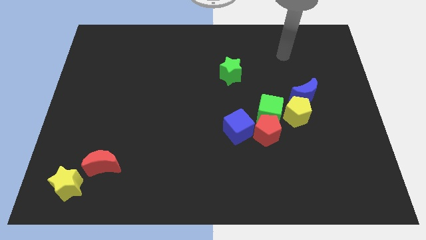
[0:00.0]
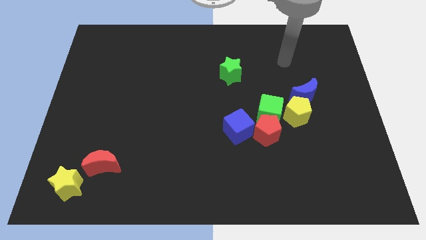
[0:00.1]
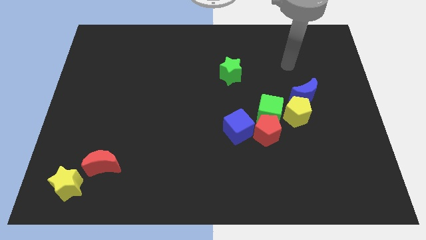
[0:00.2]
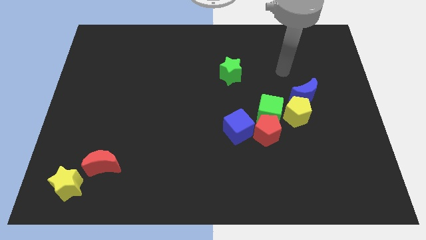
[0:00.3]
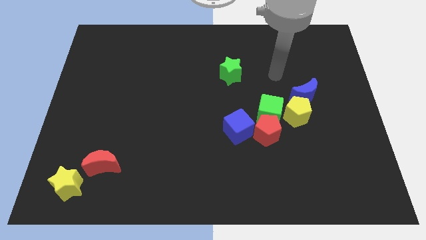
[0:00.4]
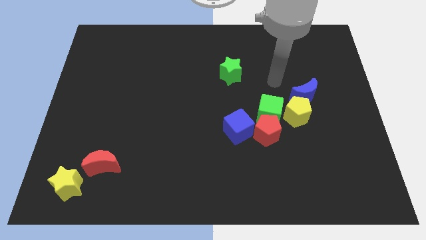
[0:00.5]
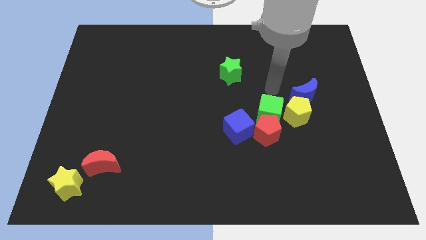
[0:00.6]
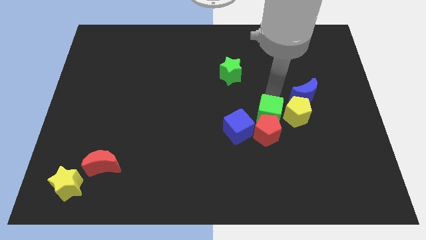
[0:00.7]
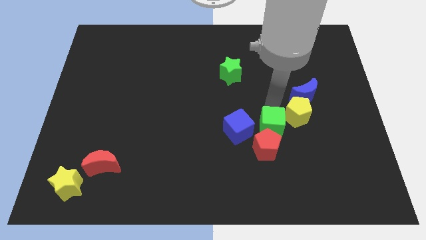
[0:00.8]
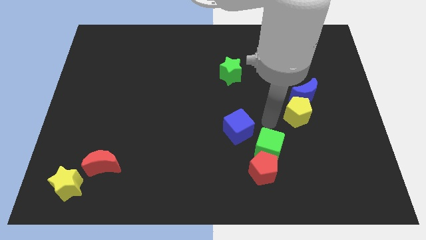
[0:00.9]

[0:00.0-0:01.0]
separate the red pentagon from the group of blocks

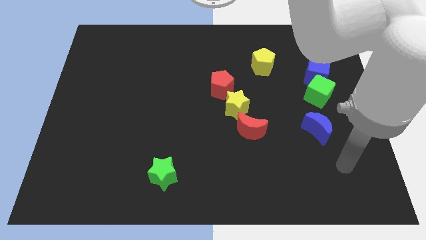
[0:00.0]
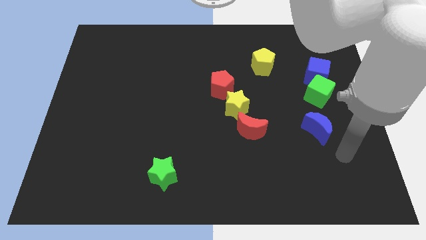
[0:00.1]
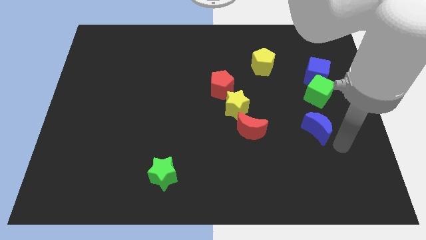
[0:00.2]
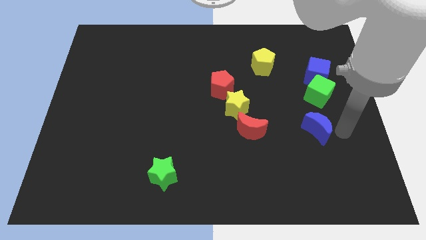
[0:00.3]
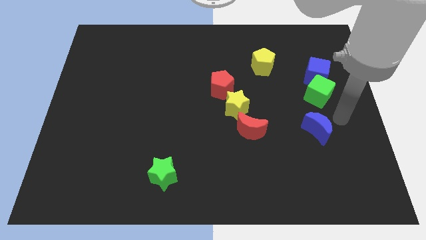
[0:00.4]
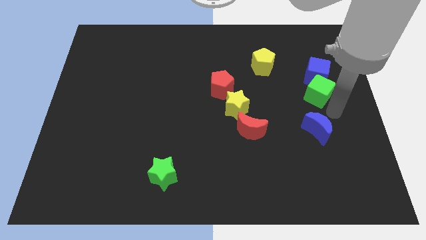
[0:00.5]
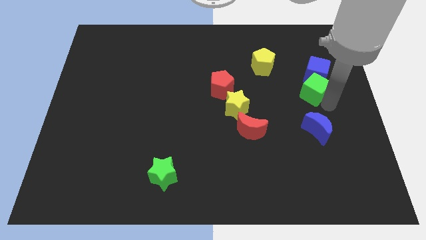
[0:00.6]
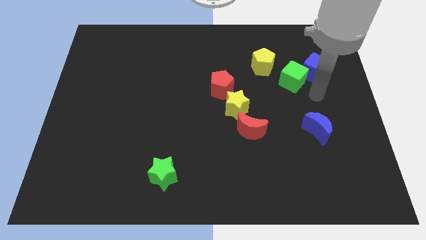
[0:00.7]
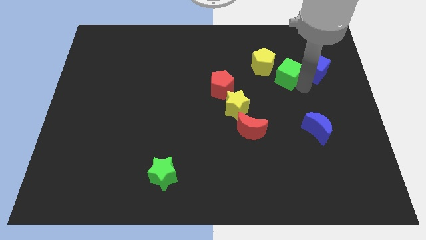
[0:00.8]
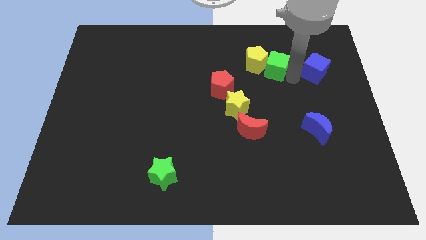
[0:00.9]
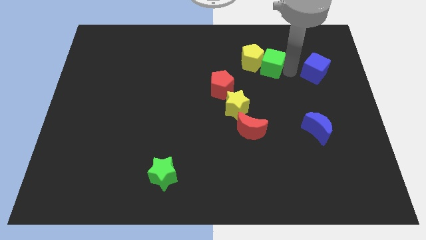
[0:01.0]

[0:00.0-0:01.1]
pull the blue cube apart from the green cube

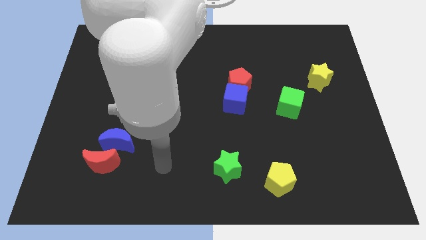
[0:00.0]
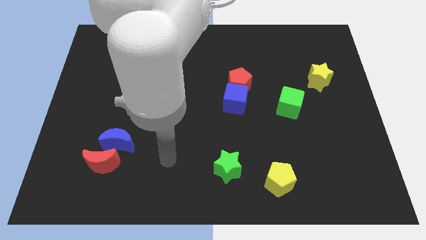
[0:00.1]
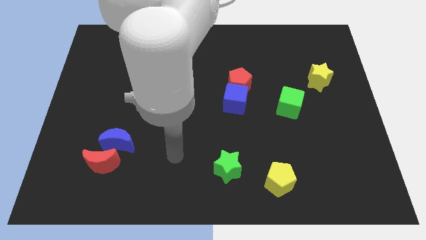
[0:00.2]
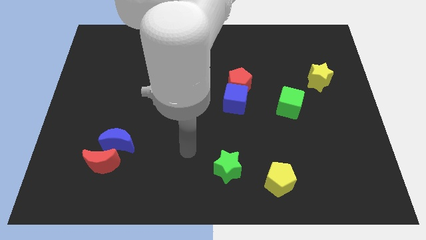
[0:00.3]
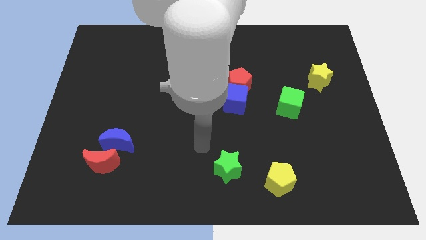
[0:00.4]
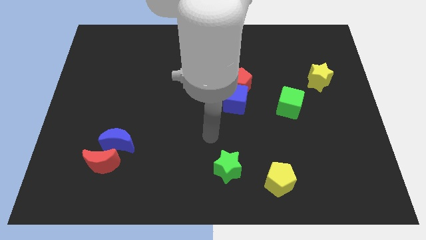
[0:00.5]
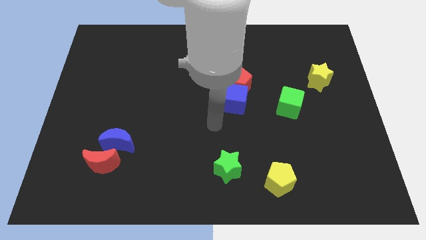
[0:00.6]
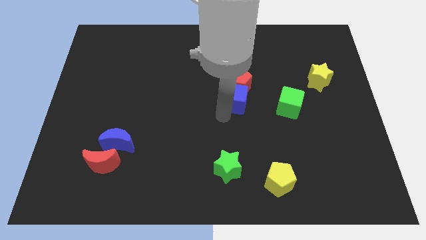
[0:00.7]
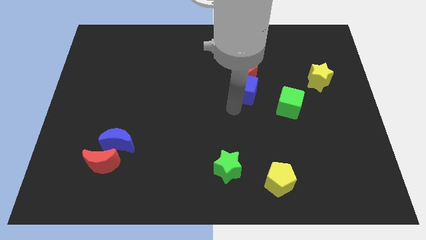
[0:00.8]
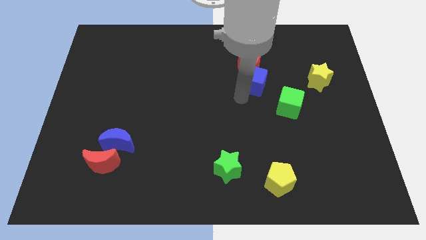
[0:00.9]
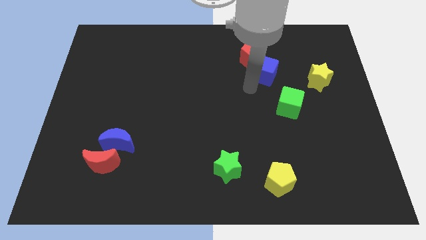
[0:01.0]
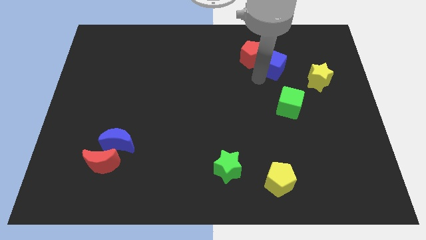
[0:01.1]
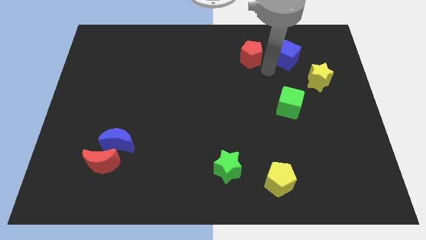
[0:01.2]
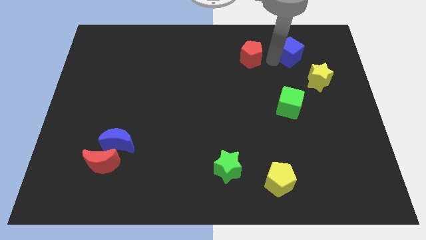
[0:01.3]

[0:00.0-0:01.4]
separate the red pentagon from the blue cube

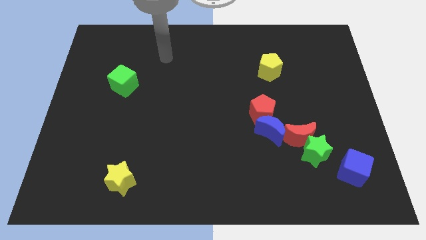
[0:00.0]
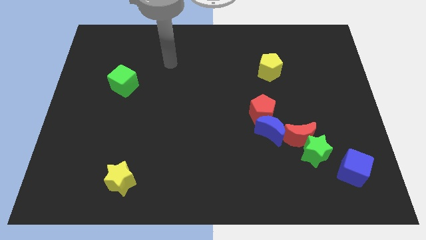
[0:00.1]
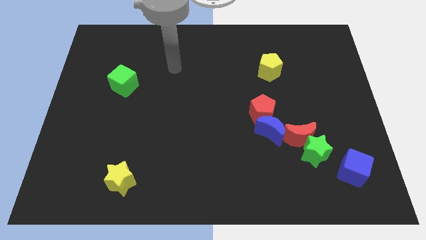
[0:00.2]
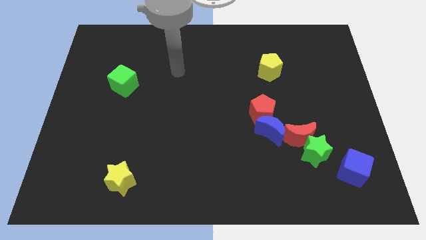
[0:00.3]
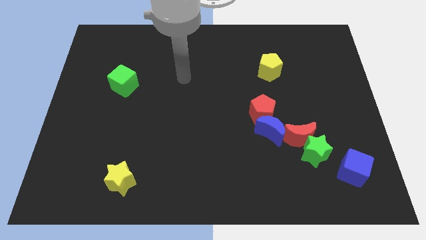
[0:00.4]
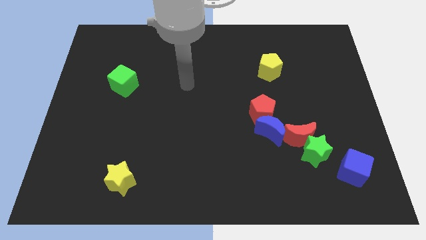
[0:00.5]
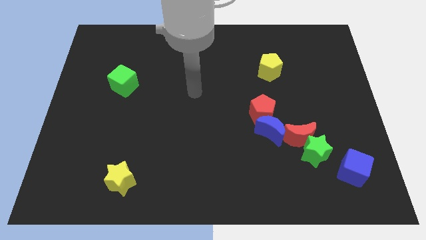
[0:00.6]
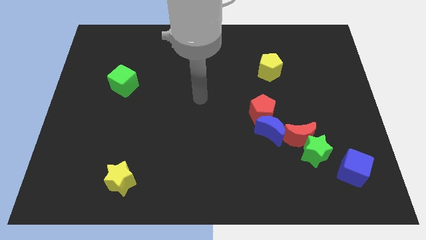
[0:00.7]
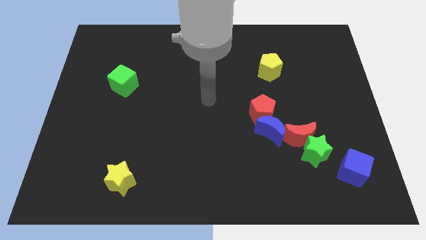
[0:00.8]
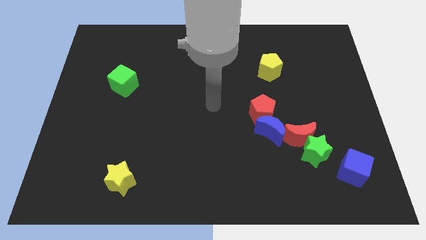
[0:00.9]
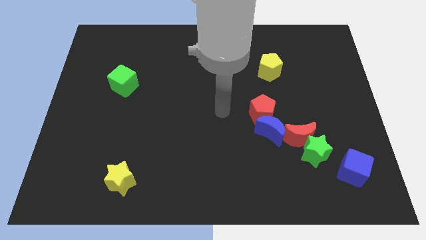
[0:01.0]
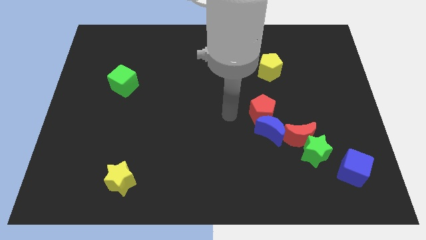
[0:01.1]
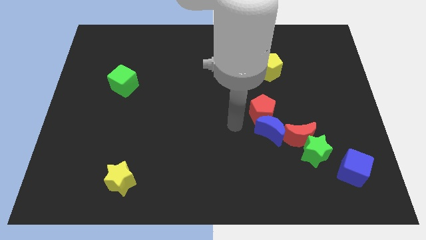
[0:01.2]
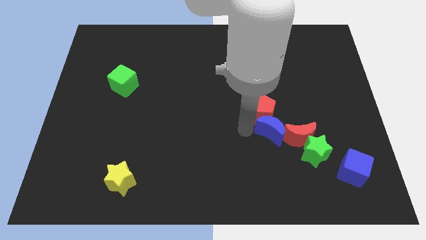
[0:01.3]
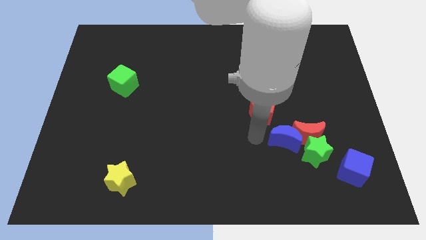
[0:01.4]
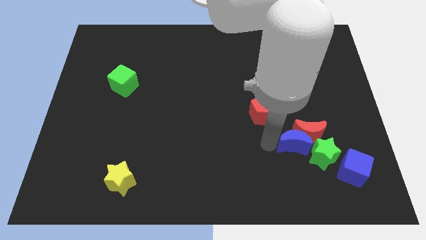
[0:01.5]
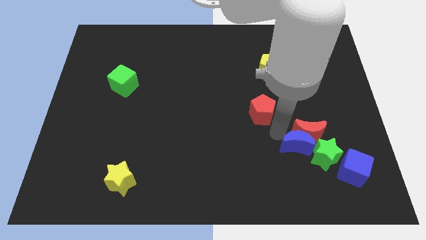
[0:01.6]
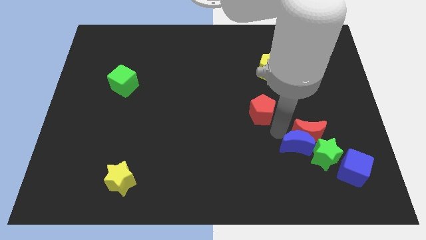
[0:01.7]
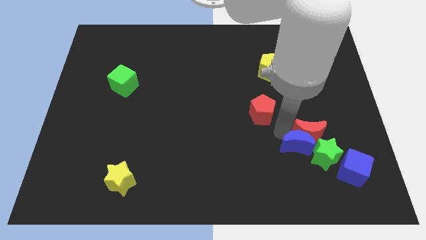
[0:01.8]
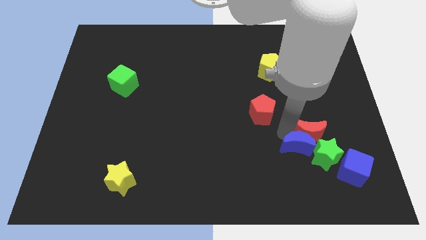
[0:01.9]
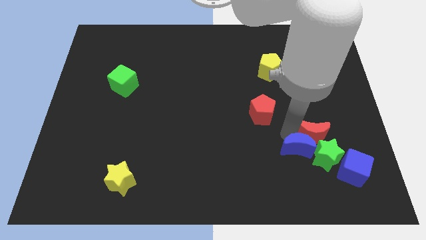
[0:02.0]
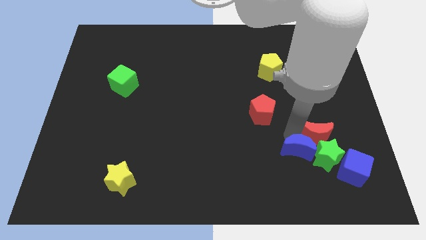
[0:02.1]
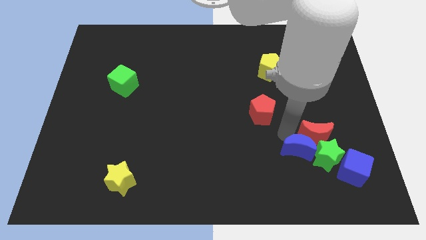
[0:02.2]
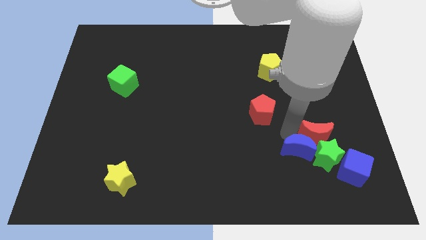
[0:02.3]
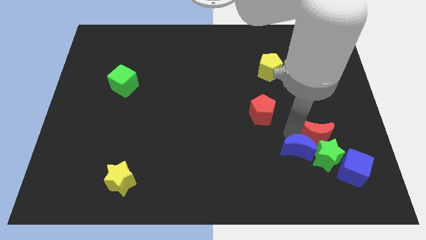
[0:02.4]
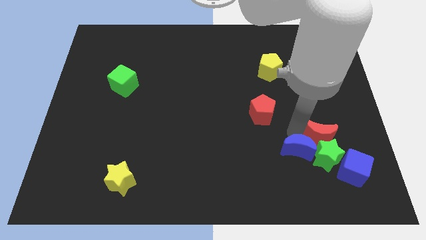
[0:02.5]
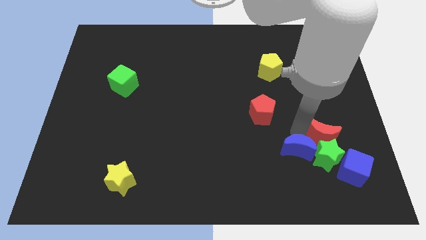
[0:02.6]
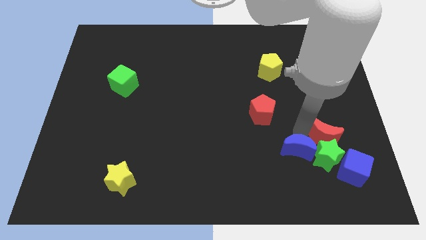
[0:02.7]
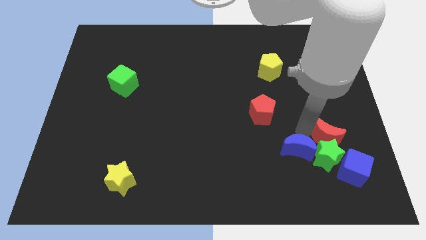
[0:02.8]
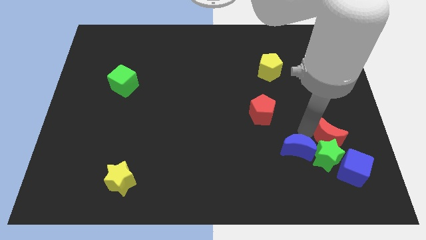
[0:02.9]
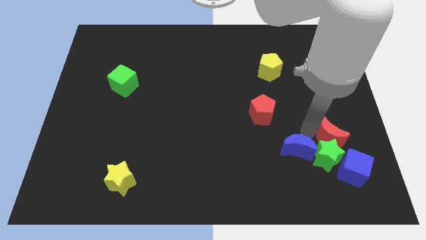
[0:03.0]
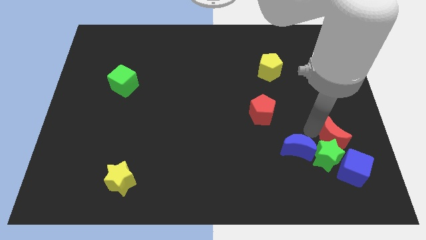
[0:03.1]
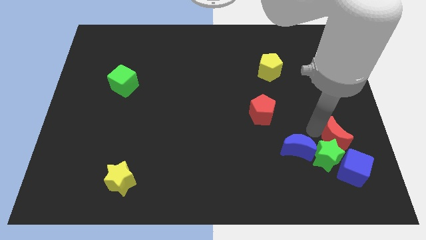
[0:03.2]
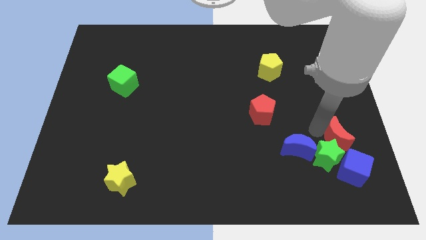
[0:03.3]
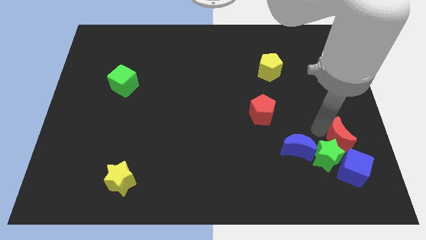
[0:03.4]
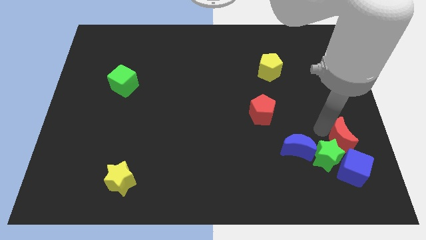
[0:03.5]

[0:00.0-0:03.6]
separate the red moon from the group of blocks

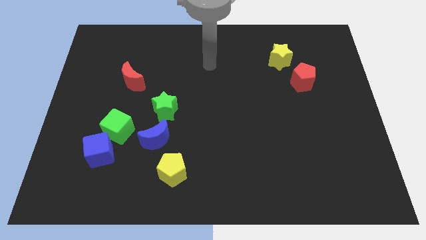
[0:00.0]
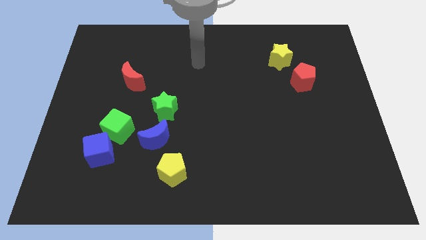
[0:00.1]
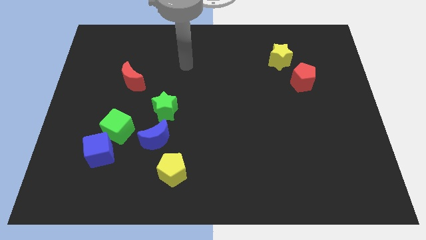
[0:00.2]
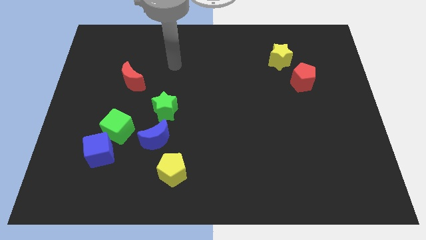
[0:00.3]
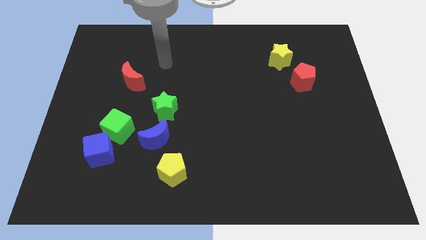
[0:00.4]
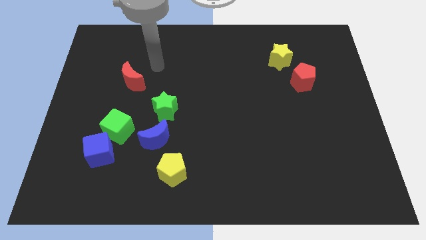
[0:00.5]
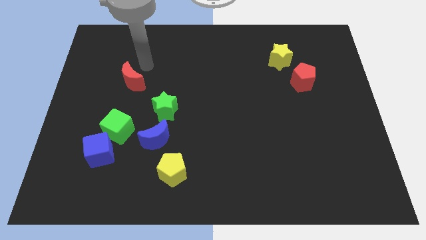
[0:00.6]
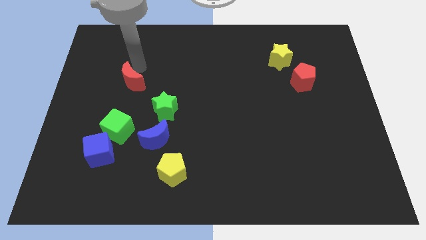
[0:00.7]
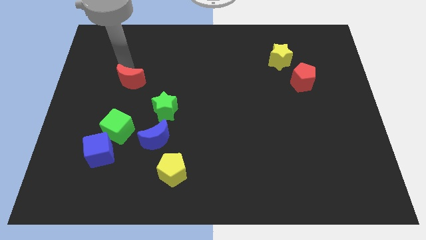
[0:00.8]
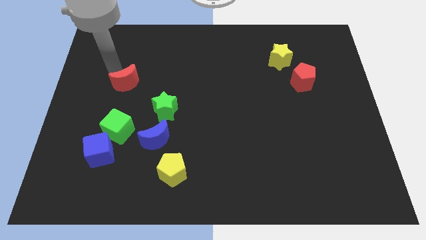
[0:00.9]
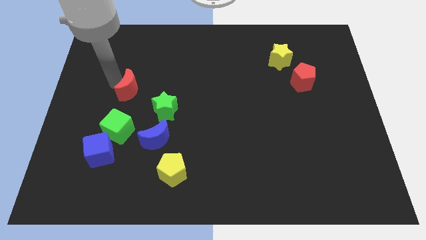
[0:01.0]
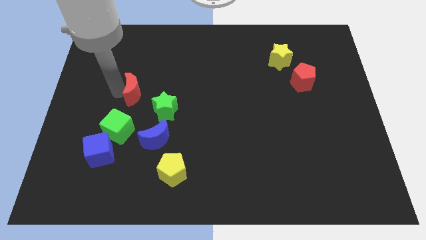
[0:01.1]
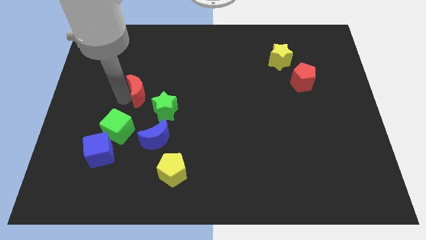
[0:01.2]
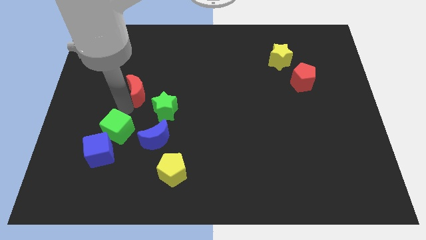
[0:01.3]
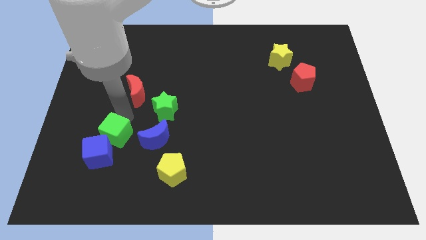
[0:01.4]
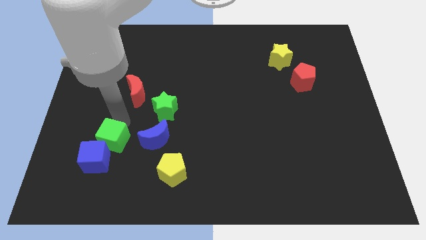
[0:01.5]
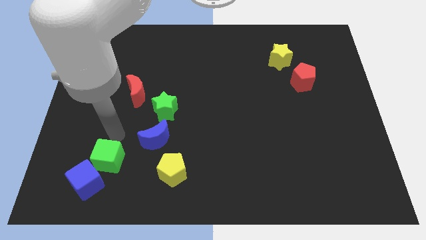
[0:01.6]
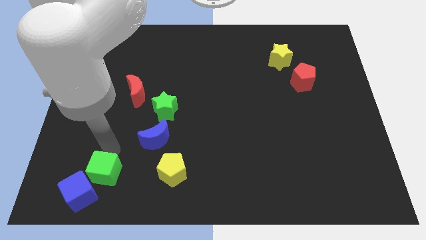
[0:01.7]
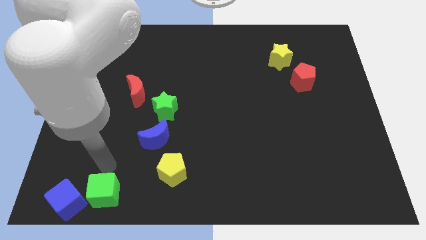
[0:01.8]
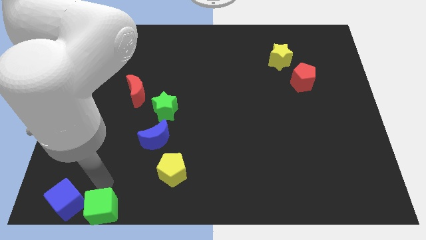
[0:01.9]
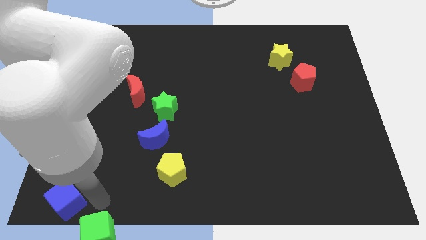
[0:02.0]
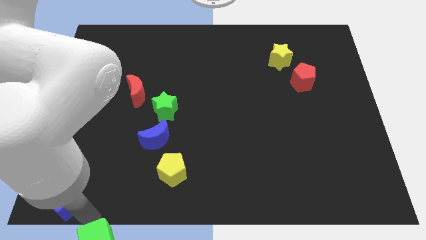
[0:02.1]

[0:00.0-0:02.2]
move the blue cube away from the green cube

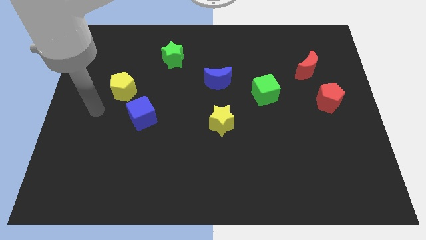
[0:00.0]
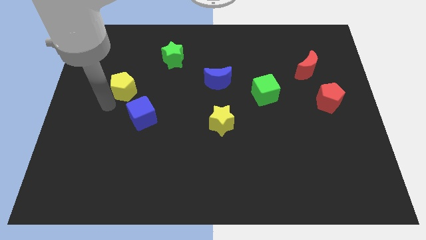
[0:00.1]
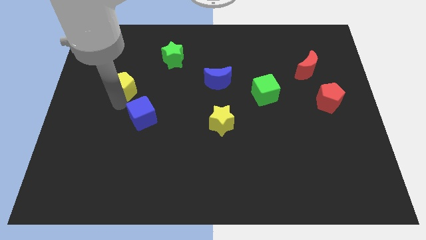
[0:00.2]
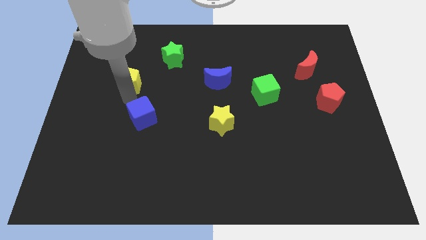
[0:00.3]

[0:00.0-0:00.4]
pull the blue cube apart from the yellow pentagon
